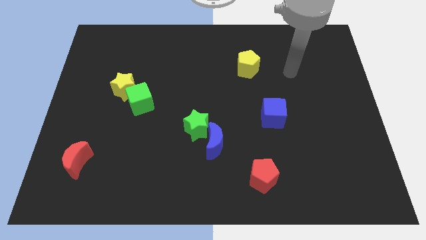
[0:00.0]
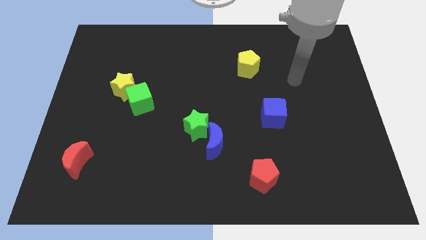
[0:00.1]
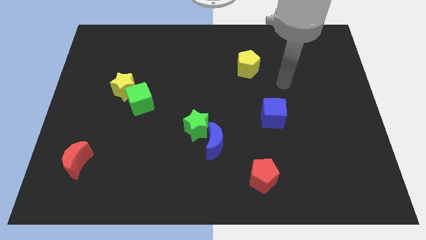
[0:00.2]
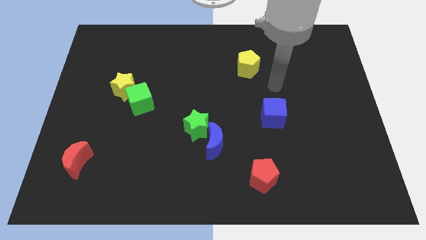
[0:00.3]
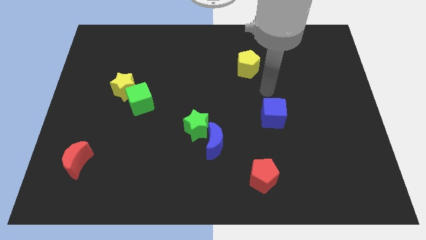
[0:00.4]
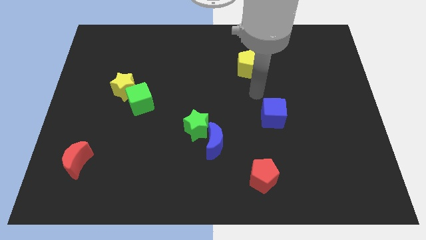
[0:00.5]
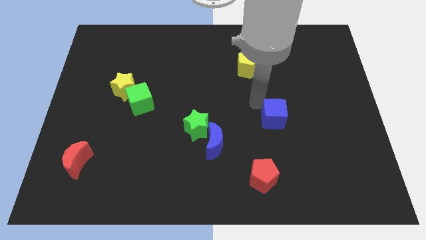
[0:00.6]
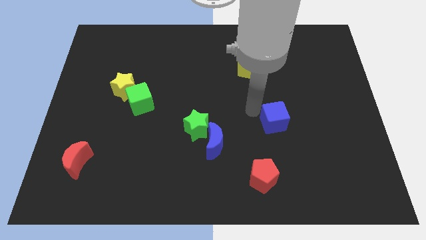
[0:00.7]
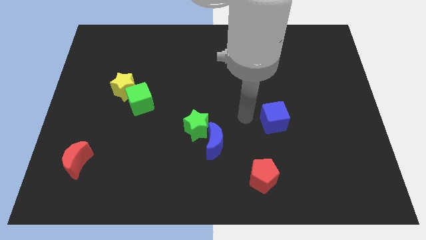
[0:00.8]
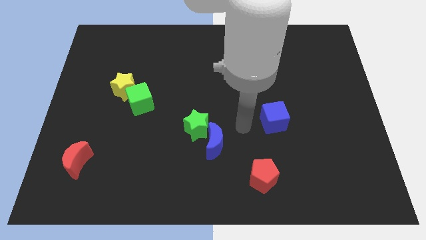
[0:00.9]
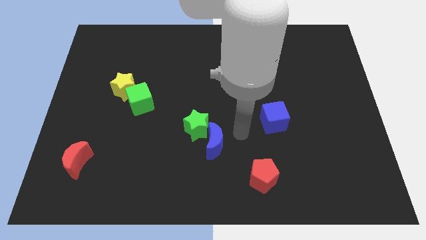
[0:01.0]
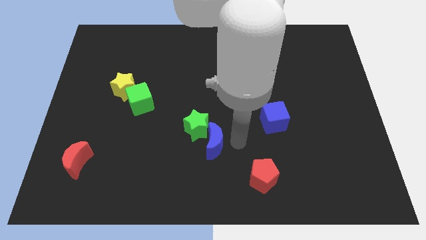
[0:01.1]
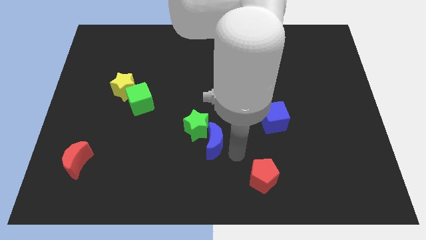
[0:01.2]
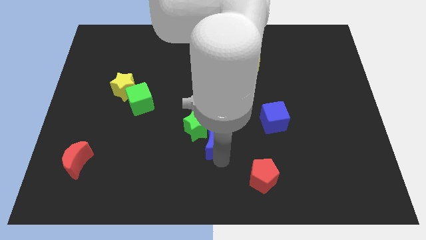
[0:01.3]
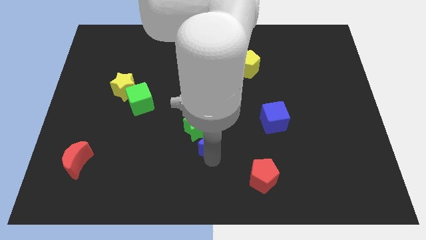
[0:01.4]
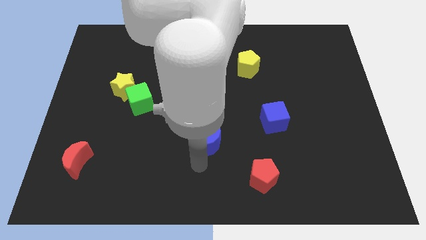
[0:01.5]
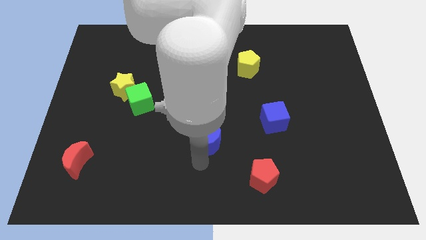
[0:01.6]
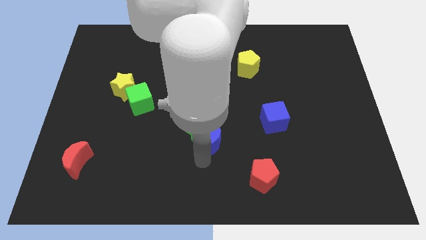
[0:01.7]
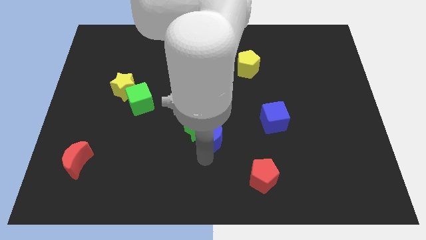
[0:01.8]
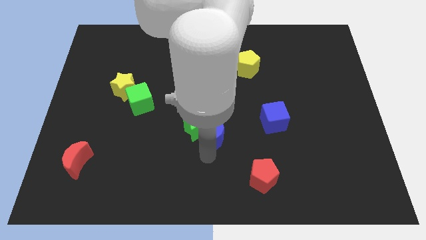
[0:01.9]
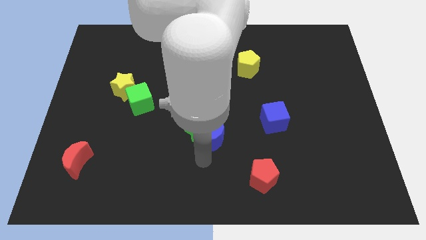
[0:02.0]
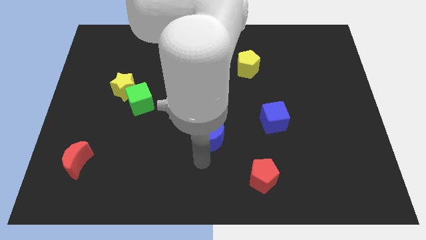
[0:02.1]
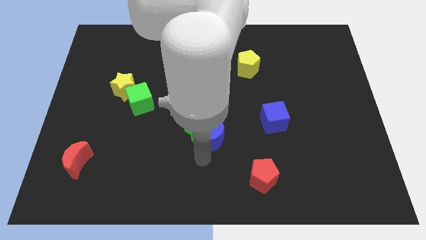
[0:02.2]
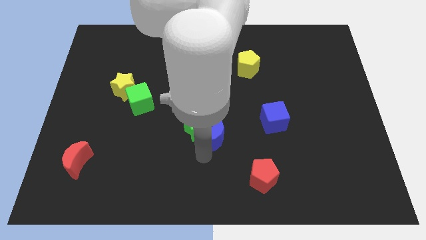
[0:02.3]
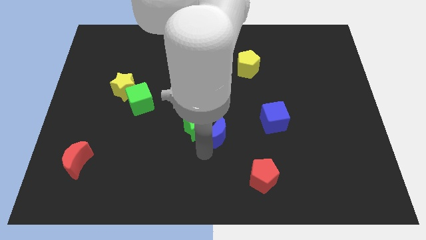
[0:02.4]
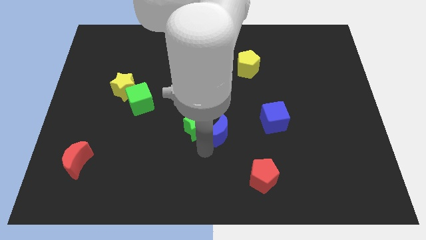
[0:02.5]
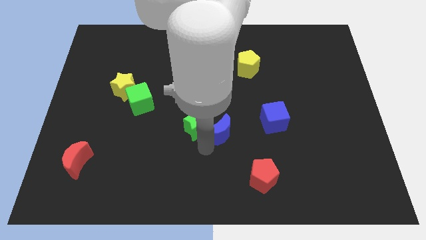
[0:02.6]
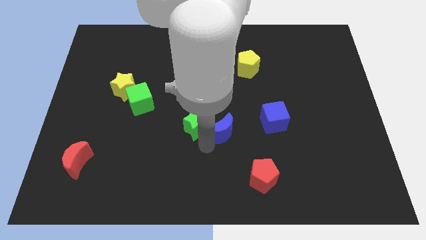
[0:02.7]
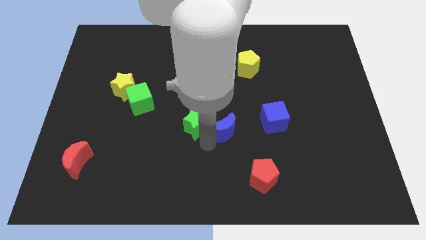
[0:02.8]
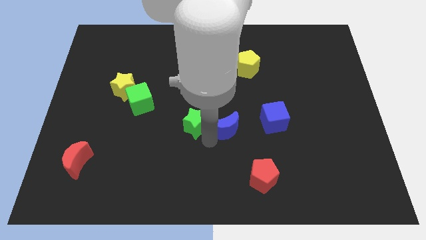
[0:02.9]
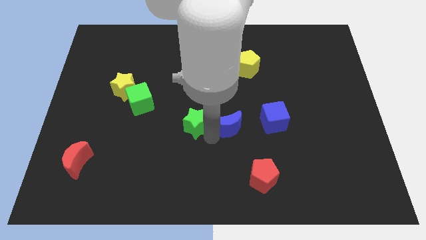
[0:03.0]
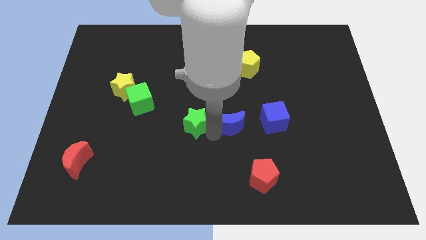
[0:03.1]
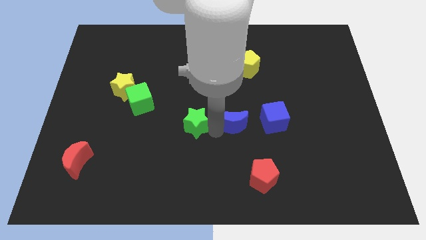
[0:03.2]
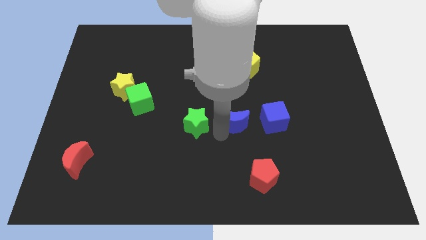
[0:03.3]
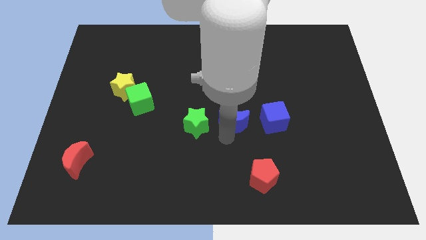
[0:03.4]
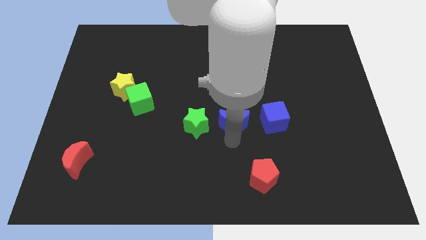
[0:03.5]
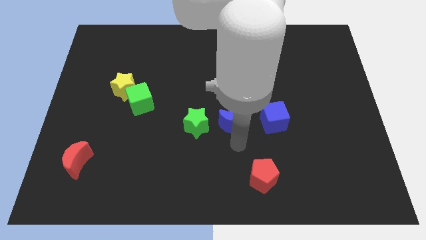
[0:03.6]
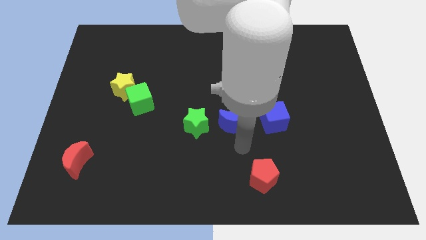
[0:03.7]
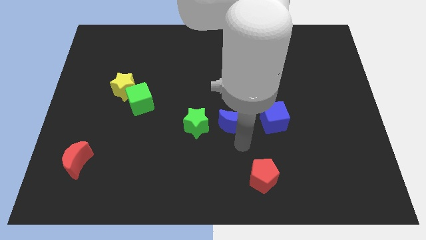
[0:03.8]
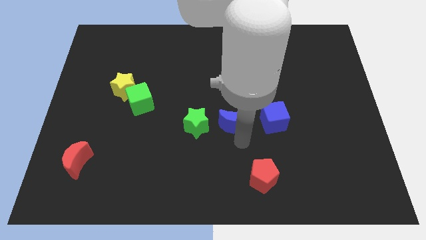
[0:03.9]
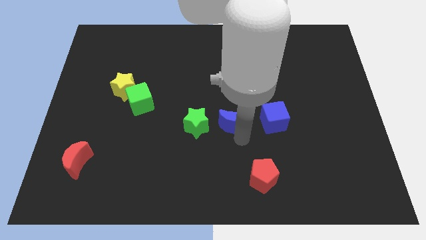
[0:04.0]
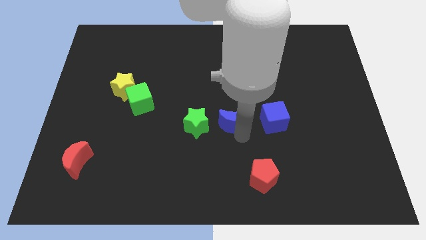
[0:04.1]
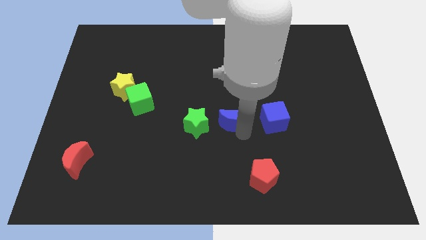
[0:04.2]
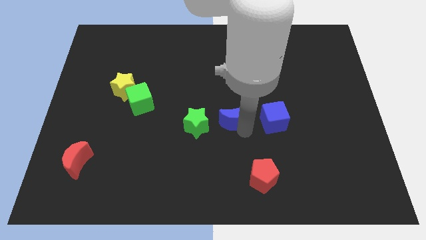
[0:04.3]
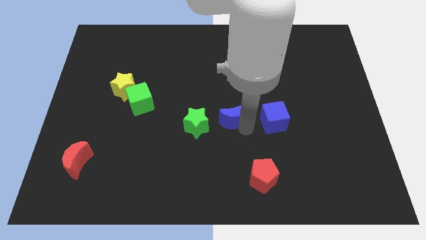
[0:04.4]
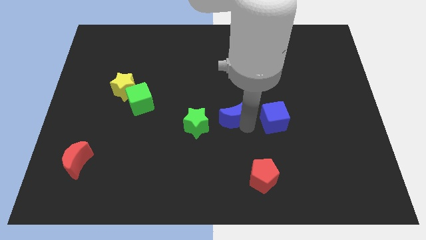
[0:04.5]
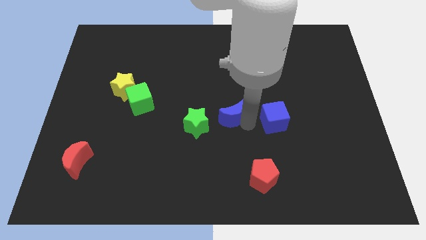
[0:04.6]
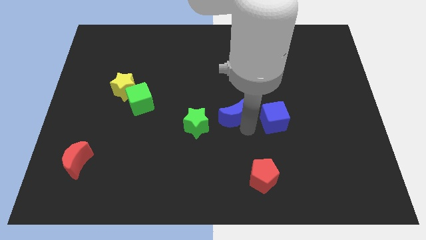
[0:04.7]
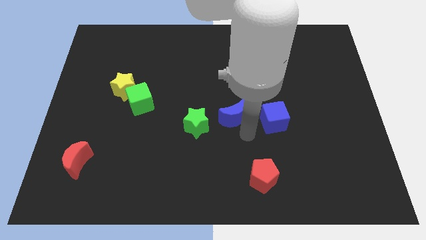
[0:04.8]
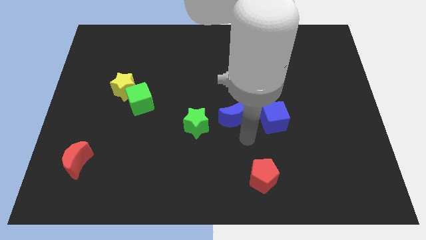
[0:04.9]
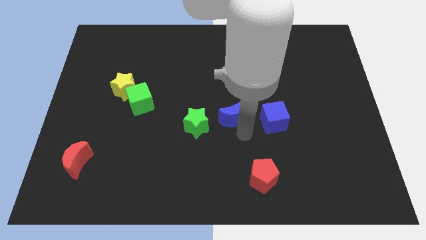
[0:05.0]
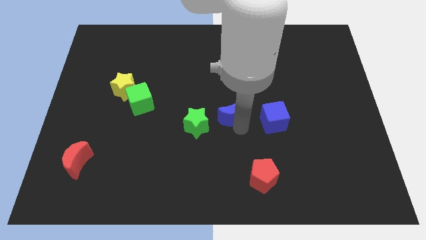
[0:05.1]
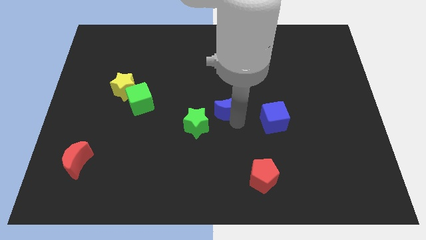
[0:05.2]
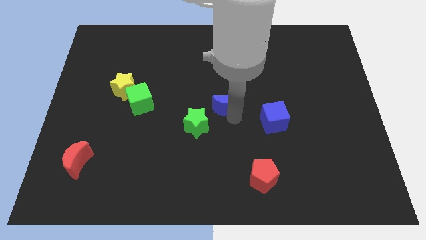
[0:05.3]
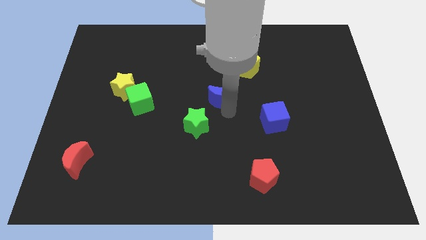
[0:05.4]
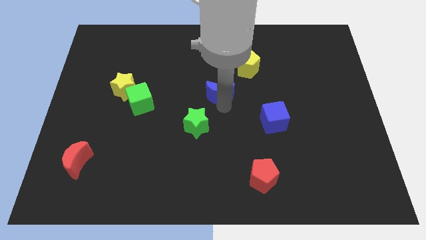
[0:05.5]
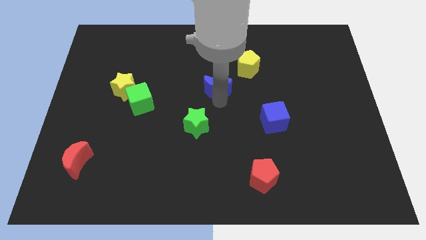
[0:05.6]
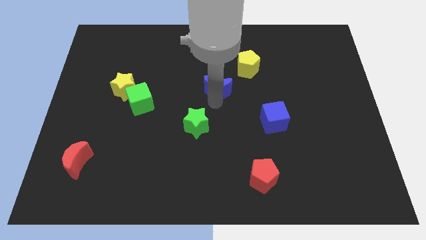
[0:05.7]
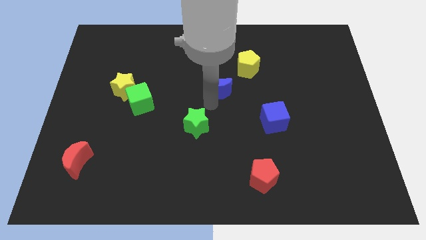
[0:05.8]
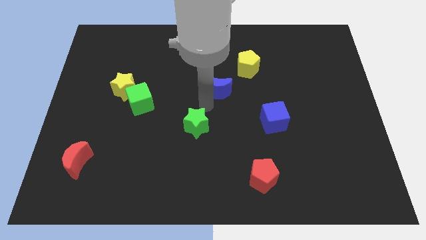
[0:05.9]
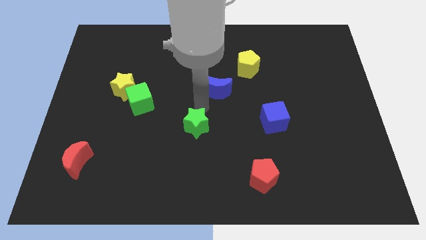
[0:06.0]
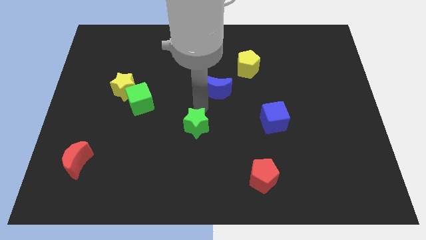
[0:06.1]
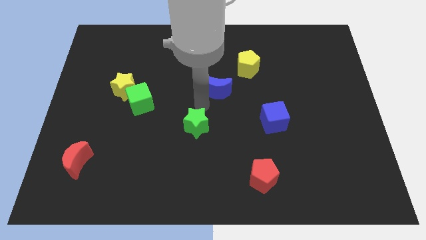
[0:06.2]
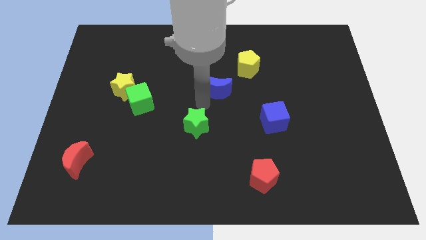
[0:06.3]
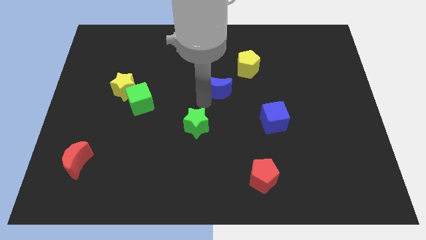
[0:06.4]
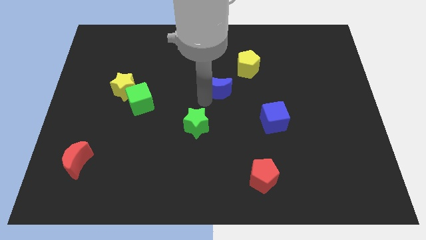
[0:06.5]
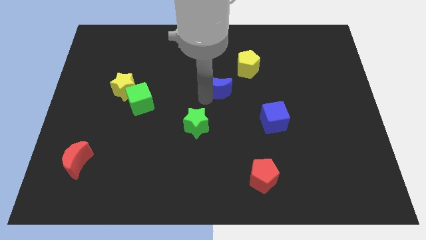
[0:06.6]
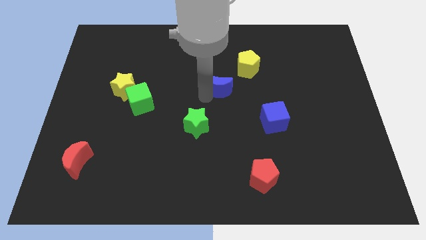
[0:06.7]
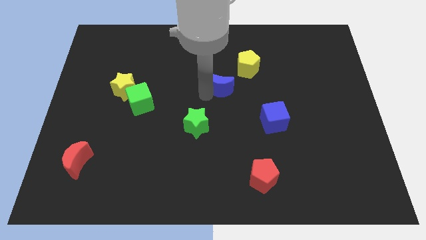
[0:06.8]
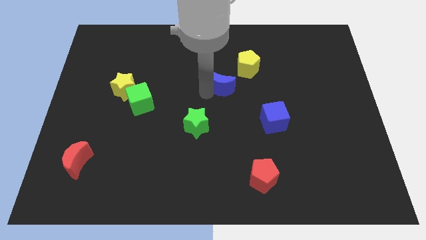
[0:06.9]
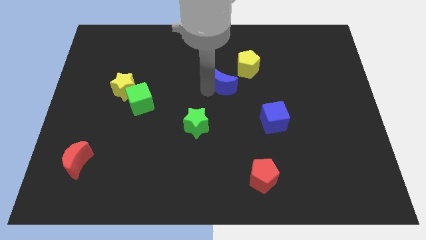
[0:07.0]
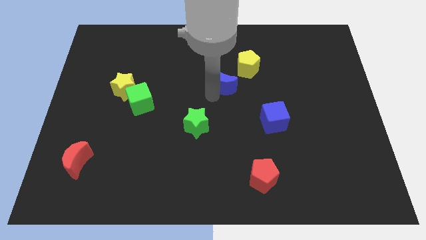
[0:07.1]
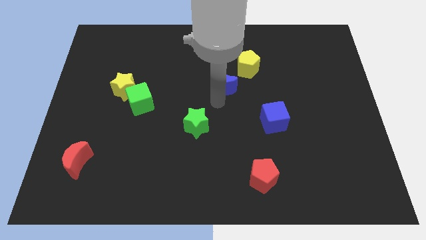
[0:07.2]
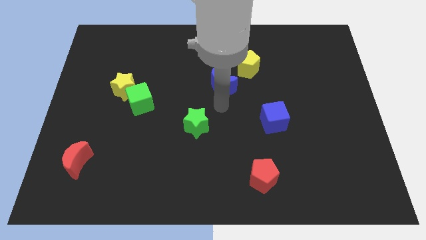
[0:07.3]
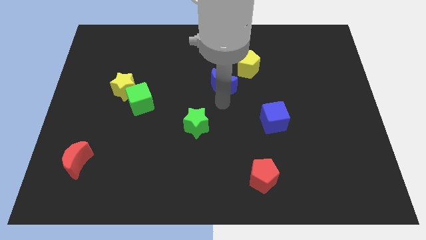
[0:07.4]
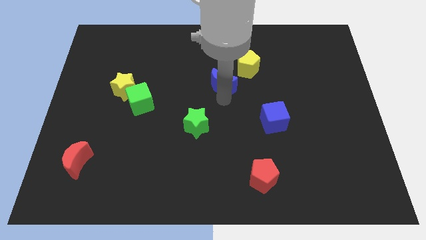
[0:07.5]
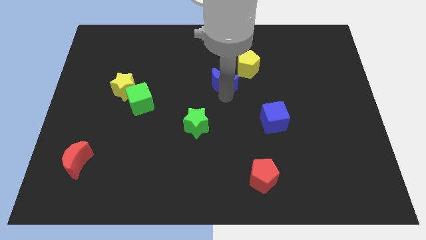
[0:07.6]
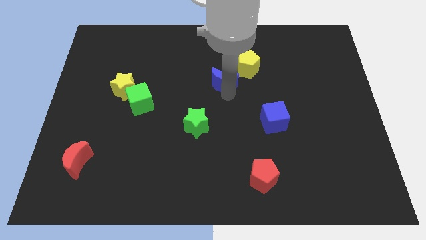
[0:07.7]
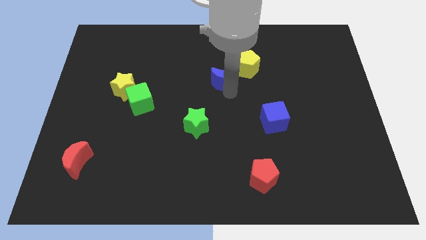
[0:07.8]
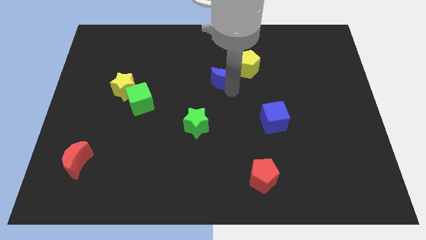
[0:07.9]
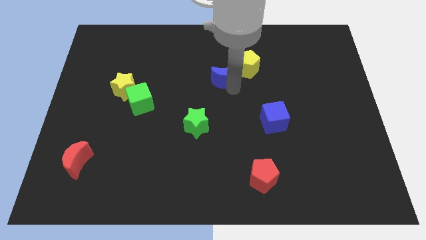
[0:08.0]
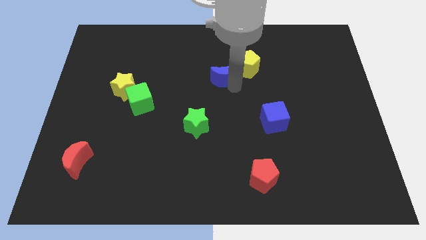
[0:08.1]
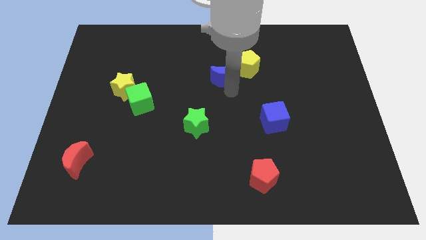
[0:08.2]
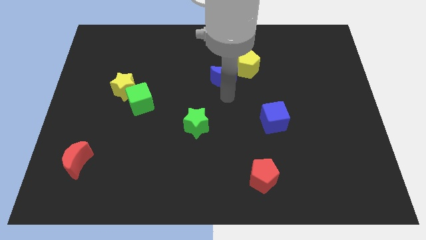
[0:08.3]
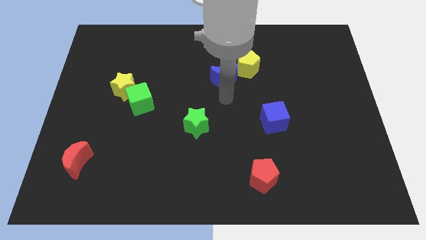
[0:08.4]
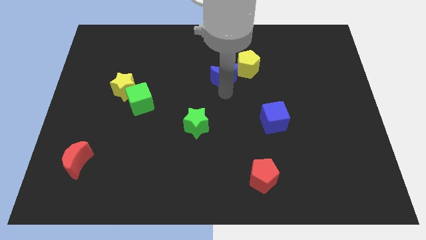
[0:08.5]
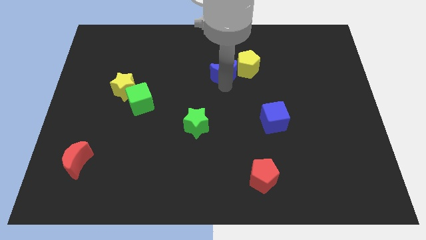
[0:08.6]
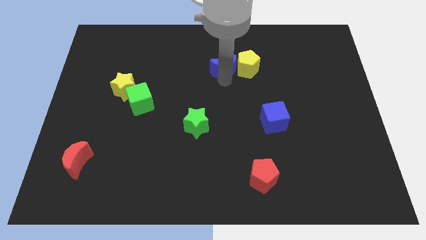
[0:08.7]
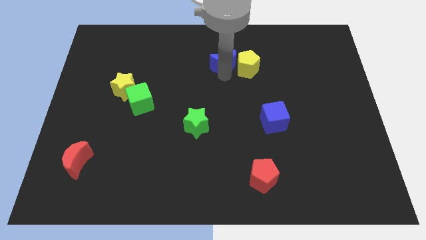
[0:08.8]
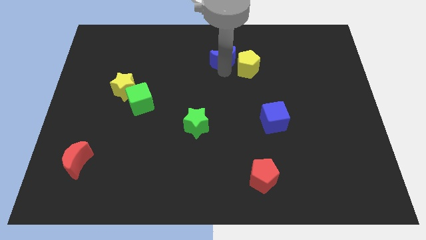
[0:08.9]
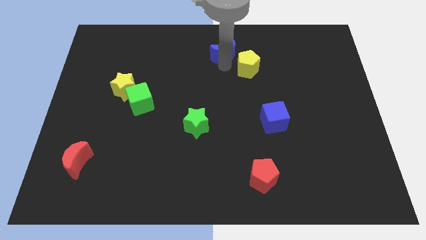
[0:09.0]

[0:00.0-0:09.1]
slide the blue moon to the towards your base
